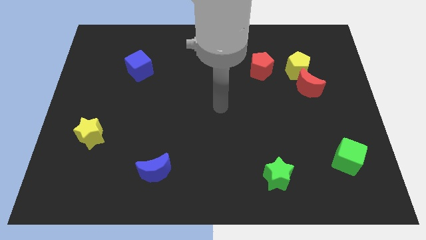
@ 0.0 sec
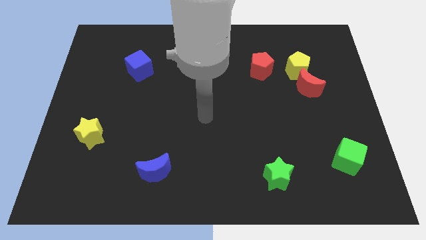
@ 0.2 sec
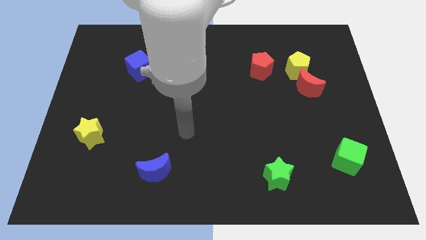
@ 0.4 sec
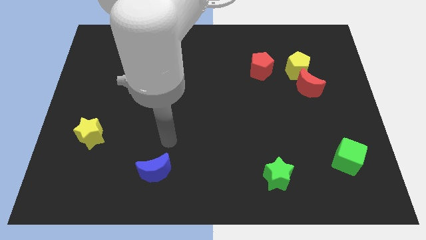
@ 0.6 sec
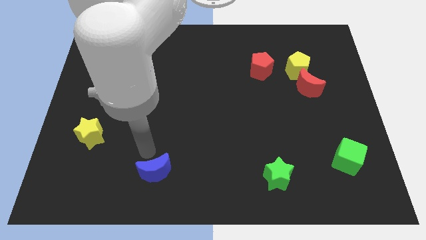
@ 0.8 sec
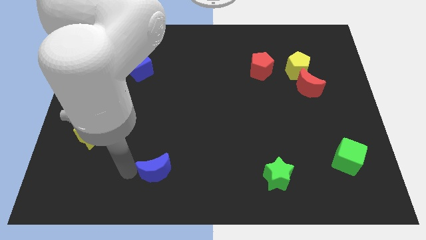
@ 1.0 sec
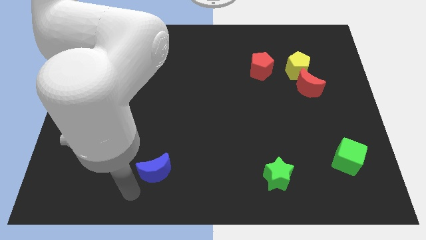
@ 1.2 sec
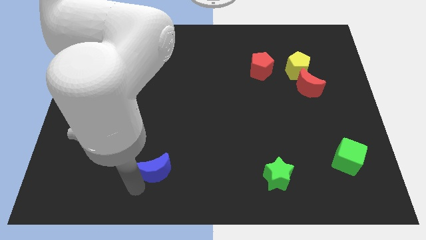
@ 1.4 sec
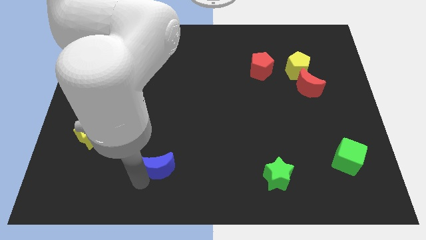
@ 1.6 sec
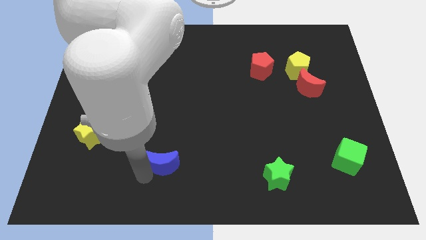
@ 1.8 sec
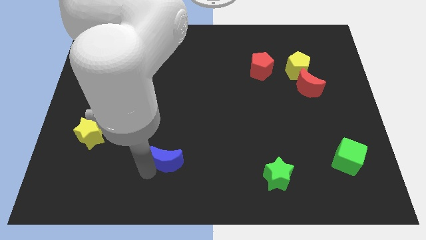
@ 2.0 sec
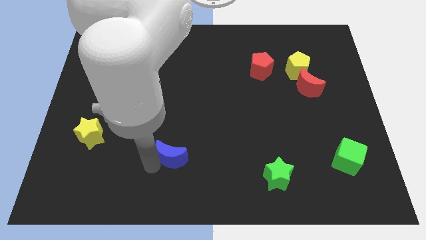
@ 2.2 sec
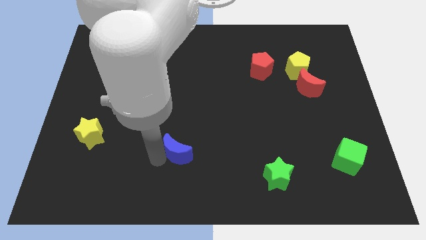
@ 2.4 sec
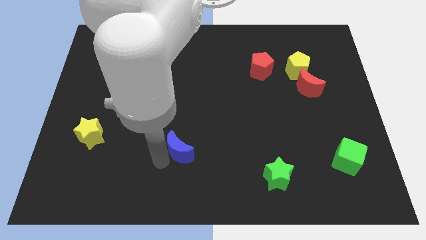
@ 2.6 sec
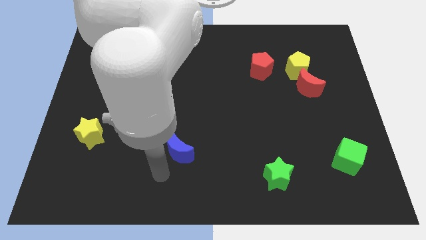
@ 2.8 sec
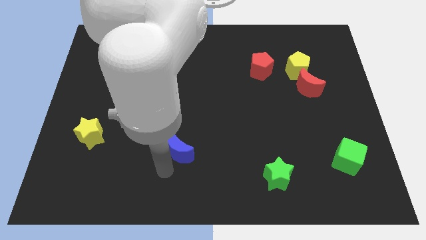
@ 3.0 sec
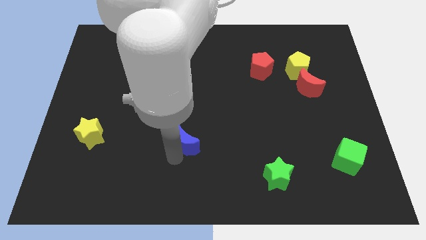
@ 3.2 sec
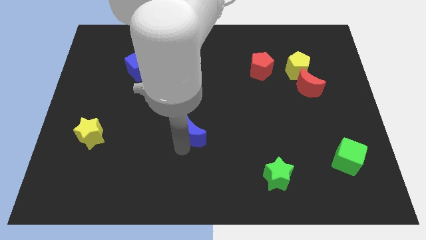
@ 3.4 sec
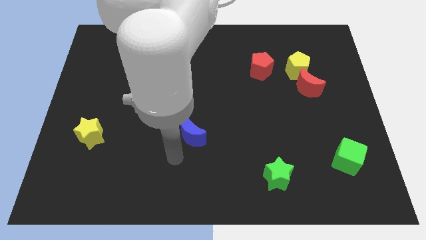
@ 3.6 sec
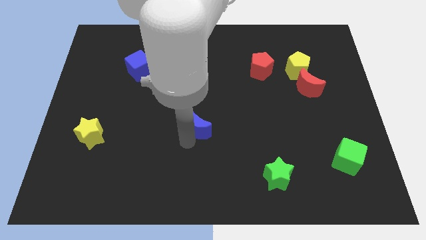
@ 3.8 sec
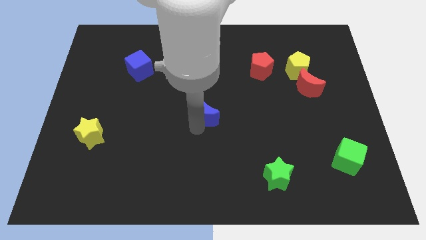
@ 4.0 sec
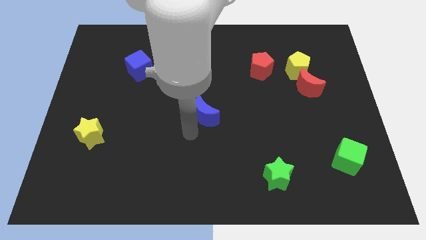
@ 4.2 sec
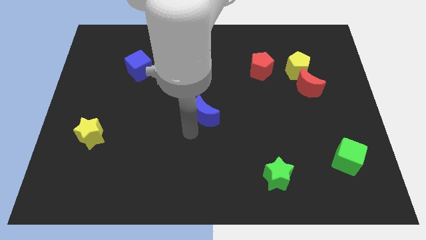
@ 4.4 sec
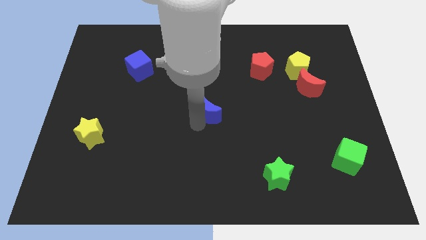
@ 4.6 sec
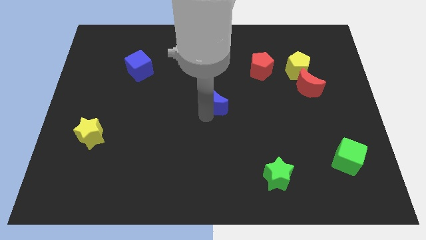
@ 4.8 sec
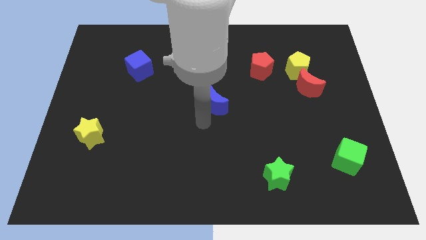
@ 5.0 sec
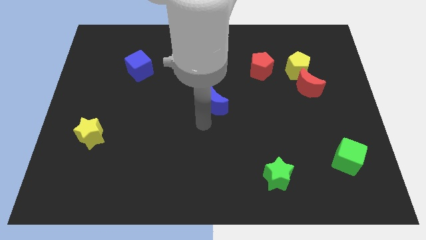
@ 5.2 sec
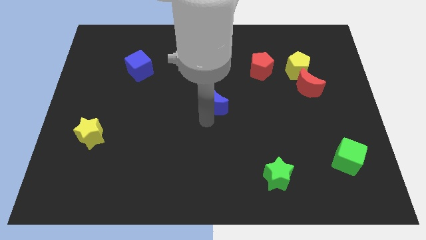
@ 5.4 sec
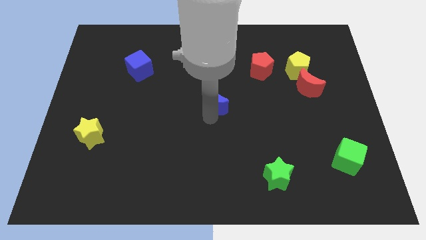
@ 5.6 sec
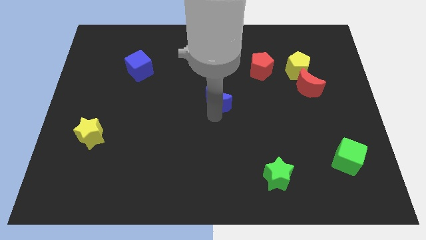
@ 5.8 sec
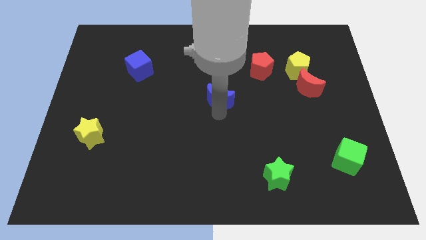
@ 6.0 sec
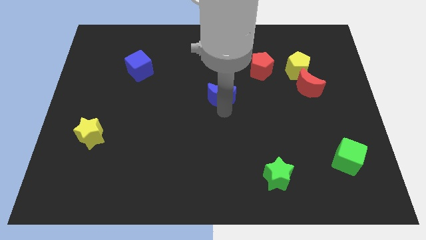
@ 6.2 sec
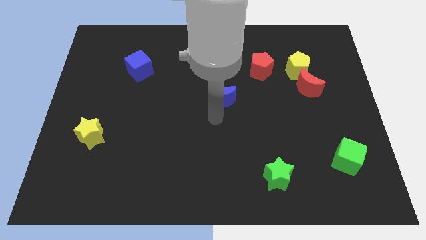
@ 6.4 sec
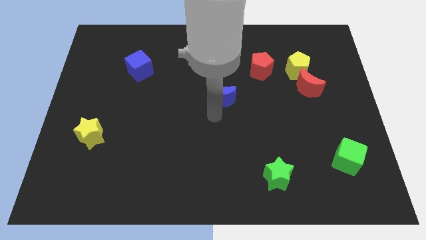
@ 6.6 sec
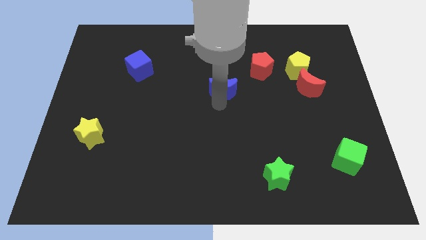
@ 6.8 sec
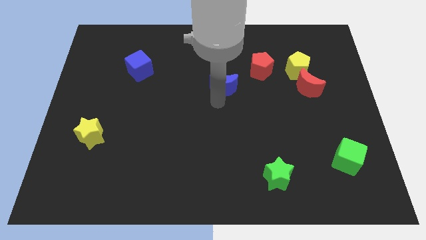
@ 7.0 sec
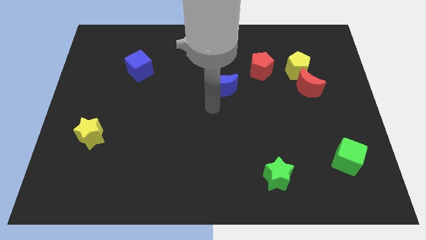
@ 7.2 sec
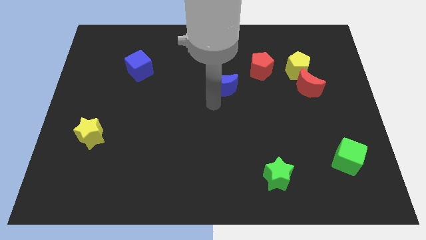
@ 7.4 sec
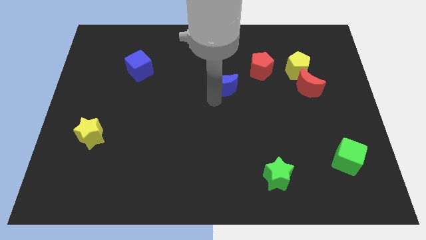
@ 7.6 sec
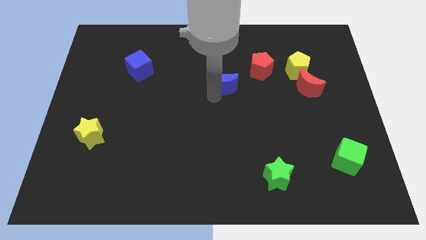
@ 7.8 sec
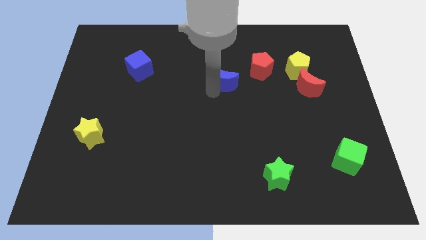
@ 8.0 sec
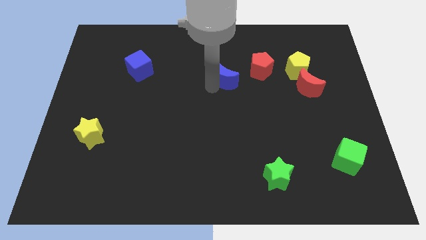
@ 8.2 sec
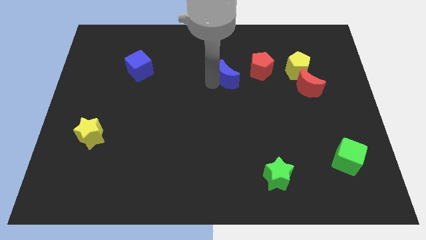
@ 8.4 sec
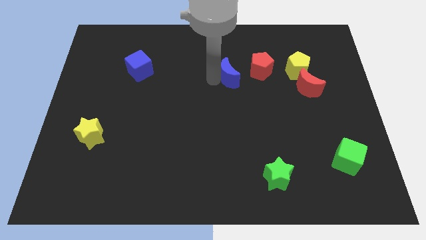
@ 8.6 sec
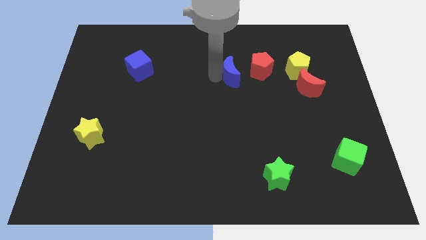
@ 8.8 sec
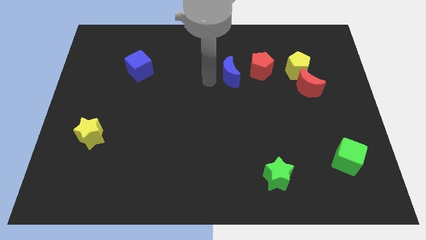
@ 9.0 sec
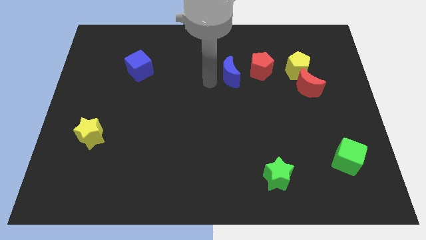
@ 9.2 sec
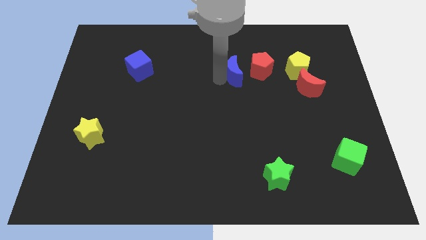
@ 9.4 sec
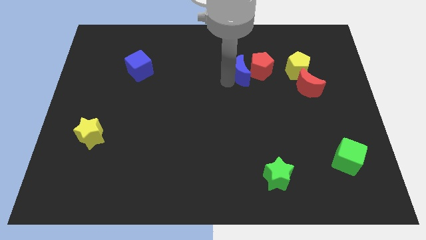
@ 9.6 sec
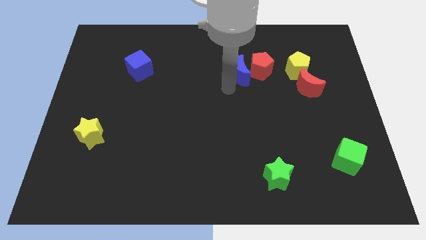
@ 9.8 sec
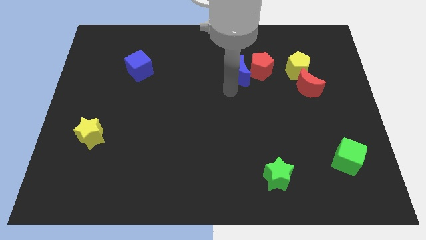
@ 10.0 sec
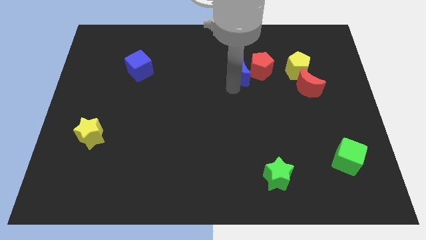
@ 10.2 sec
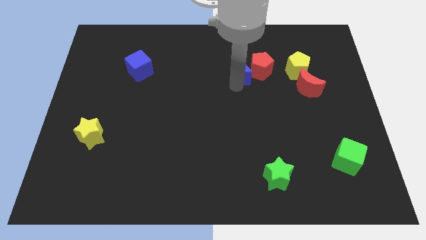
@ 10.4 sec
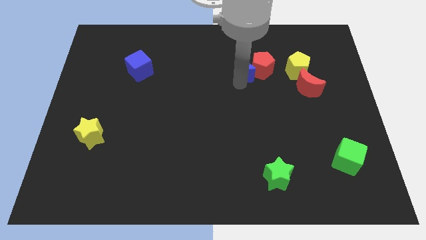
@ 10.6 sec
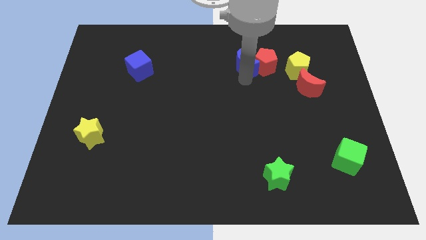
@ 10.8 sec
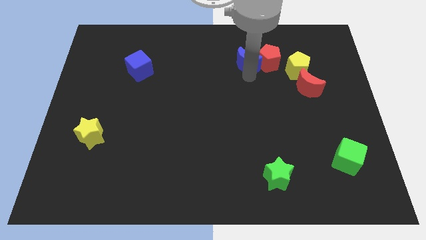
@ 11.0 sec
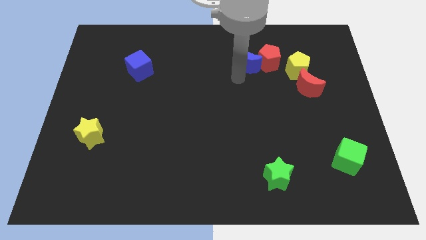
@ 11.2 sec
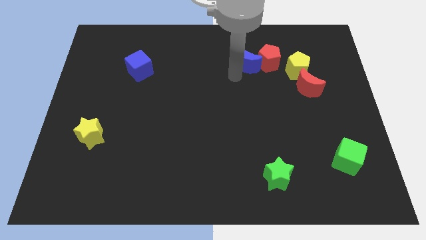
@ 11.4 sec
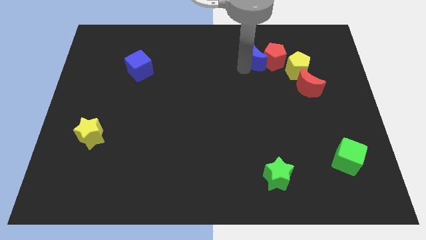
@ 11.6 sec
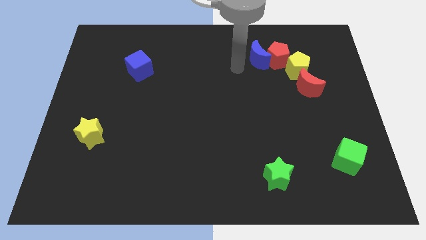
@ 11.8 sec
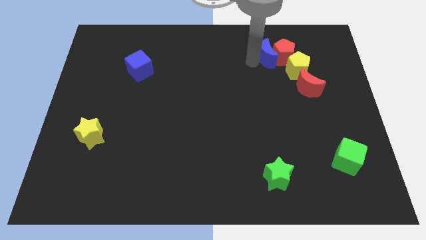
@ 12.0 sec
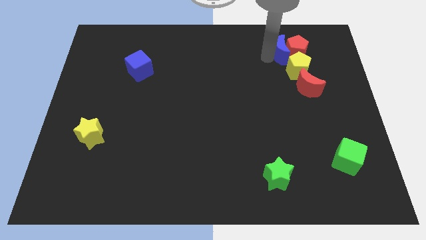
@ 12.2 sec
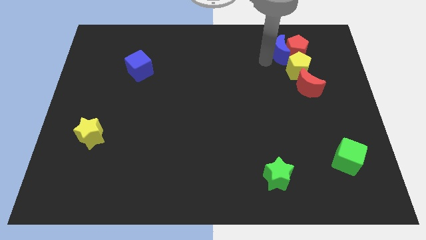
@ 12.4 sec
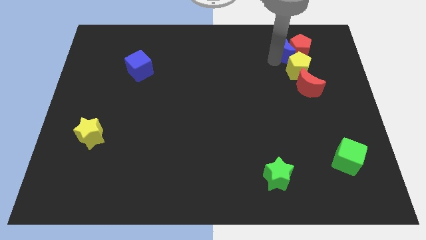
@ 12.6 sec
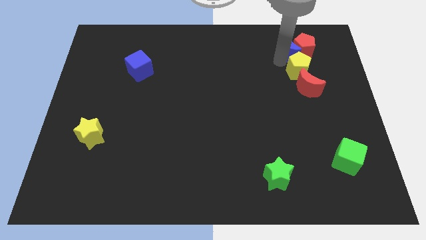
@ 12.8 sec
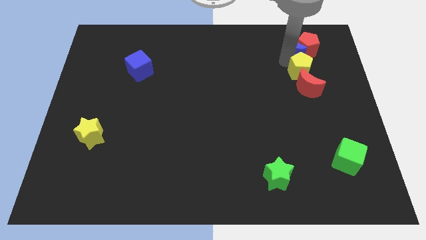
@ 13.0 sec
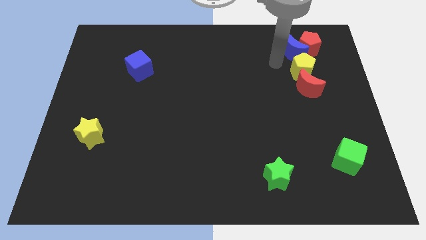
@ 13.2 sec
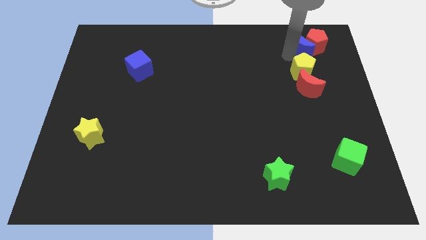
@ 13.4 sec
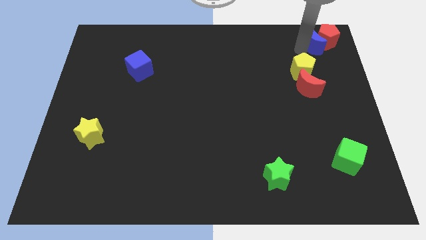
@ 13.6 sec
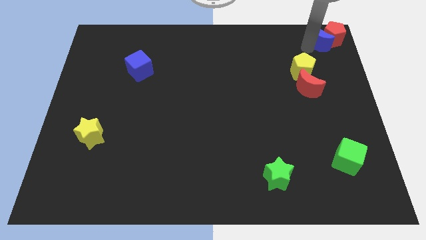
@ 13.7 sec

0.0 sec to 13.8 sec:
put the blue moon to the upper right corner

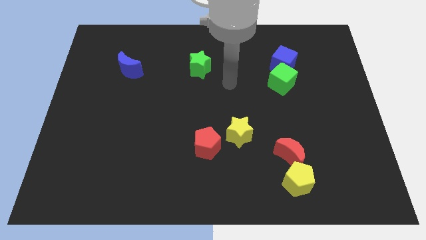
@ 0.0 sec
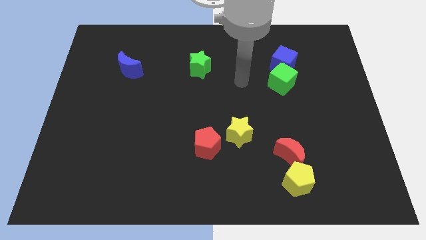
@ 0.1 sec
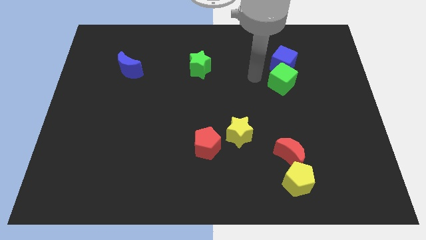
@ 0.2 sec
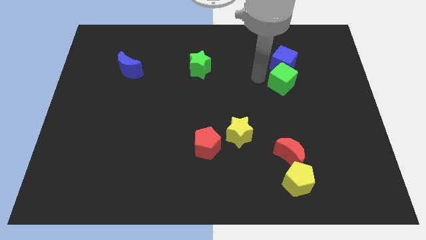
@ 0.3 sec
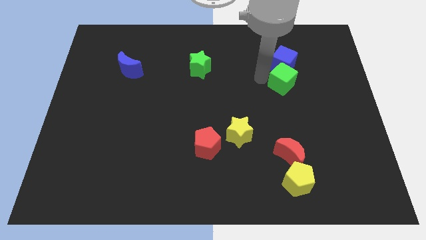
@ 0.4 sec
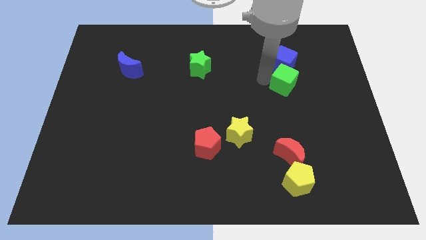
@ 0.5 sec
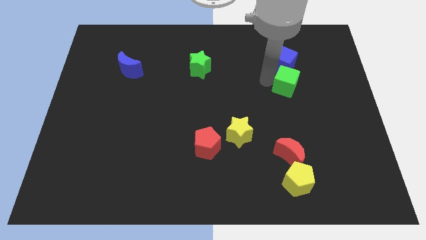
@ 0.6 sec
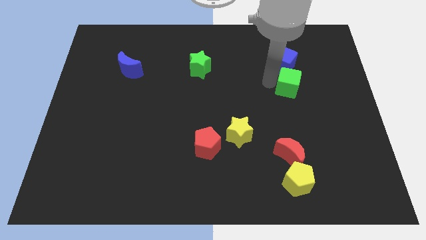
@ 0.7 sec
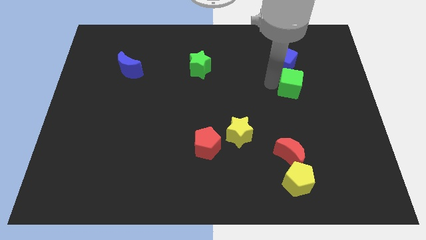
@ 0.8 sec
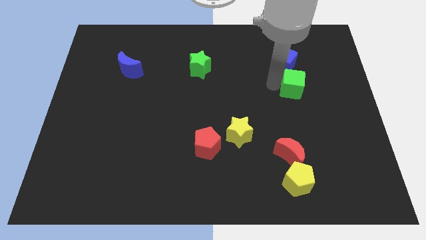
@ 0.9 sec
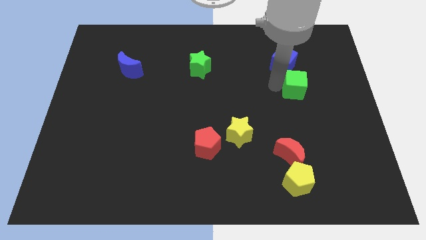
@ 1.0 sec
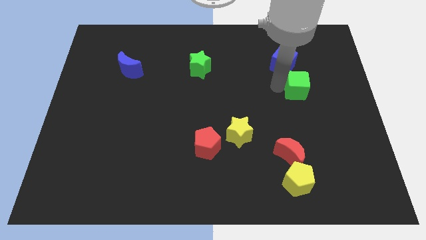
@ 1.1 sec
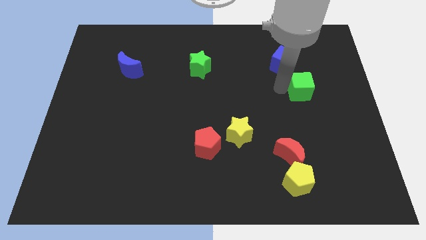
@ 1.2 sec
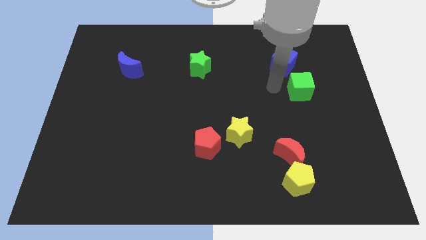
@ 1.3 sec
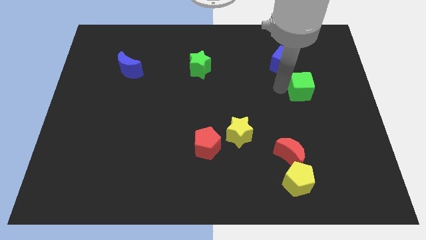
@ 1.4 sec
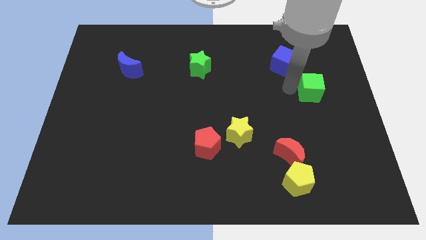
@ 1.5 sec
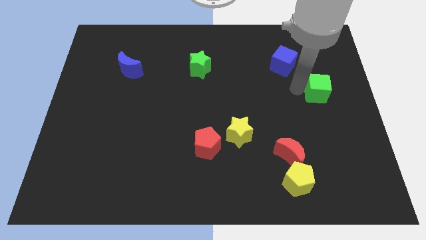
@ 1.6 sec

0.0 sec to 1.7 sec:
put the green cube to the right side of the board
